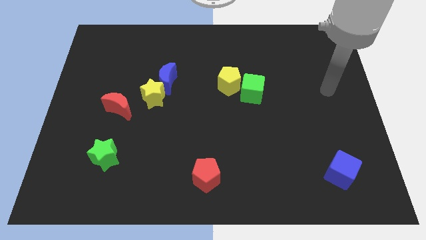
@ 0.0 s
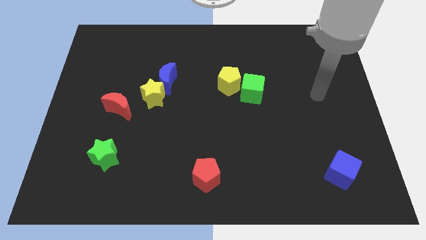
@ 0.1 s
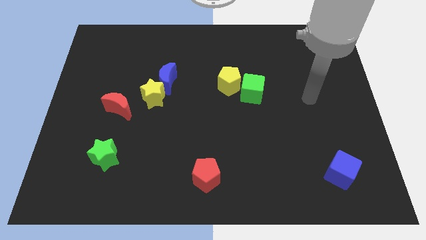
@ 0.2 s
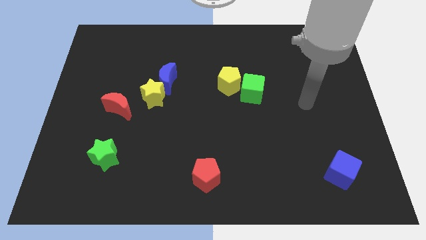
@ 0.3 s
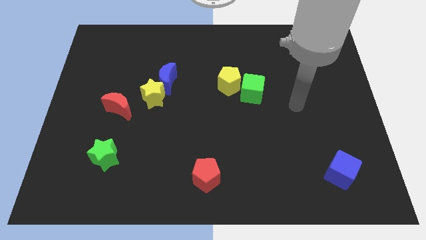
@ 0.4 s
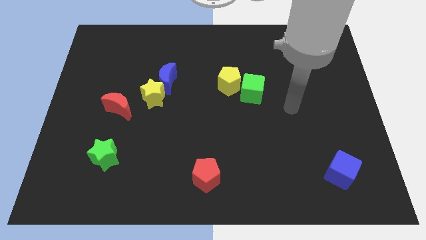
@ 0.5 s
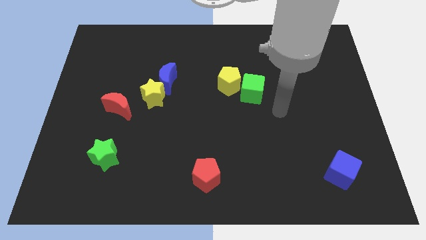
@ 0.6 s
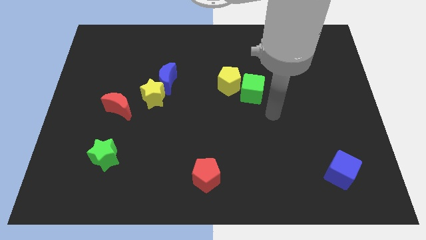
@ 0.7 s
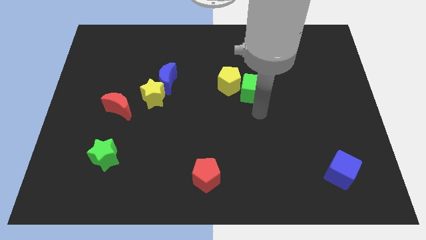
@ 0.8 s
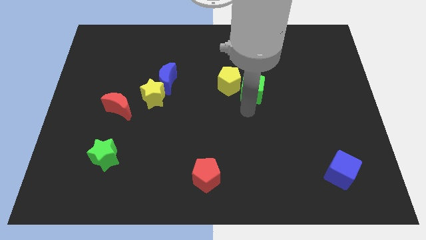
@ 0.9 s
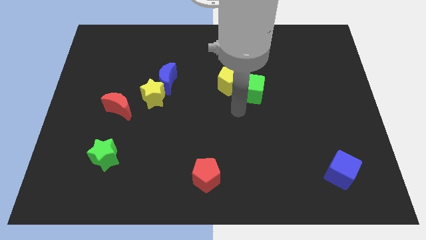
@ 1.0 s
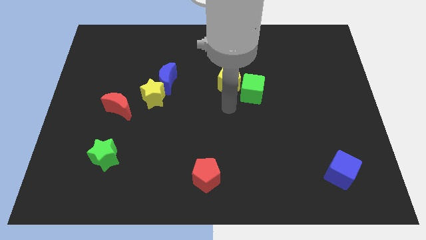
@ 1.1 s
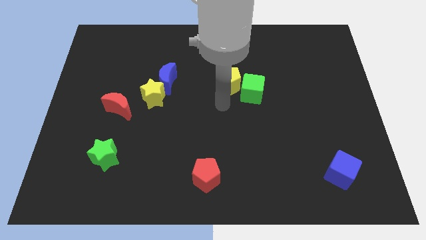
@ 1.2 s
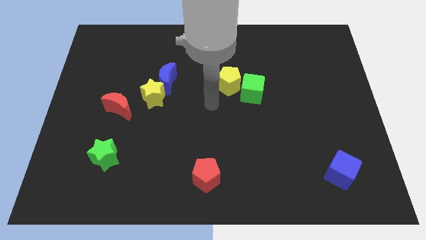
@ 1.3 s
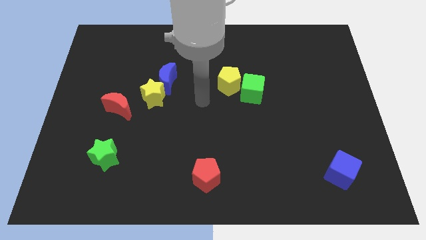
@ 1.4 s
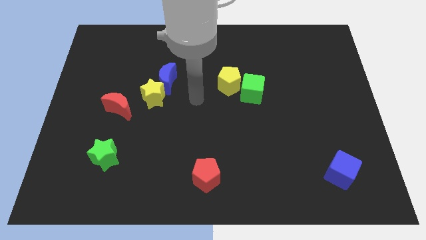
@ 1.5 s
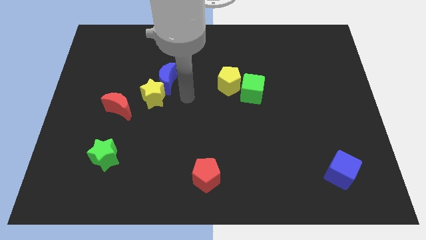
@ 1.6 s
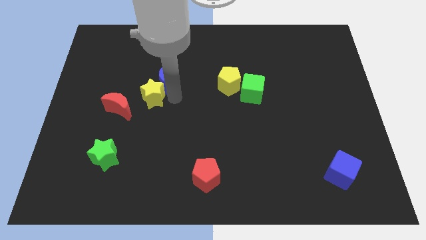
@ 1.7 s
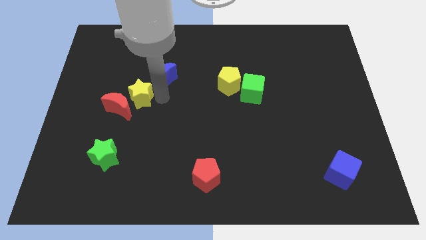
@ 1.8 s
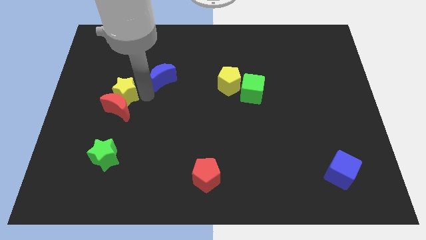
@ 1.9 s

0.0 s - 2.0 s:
move the blue moon away from the yellow star

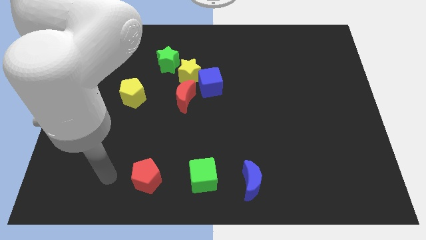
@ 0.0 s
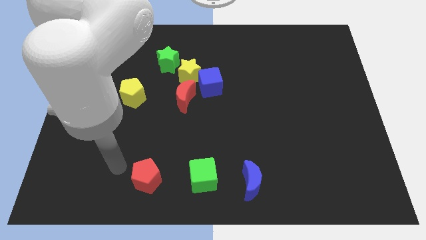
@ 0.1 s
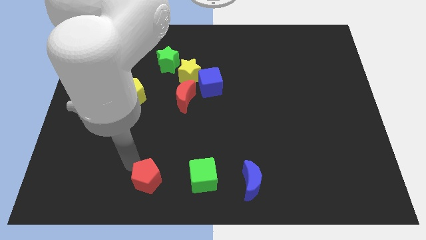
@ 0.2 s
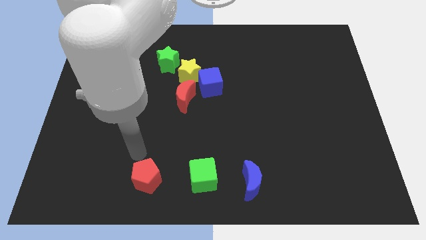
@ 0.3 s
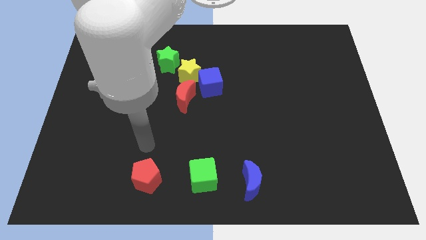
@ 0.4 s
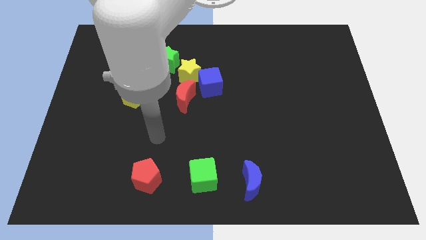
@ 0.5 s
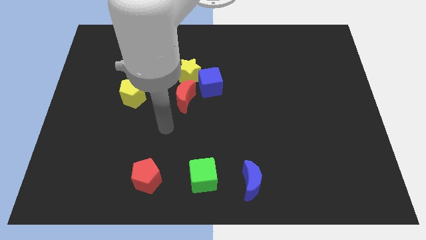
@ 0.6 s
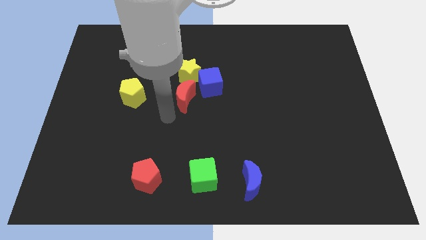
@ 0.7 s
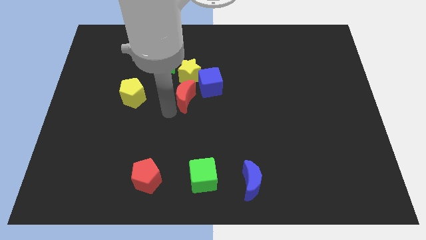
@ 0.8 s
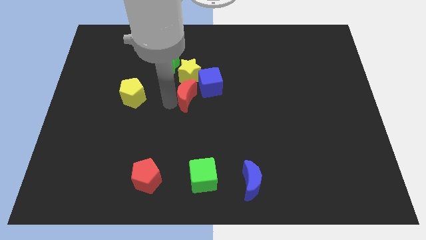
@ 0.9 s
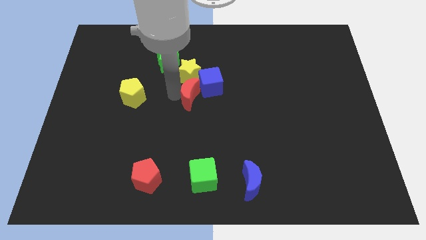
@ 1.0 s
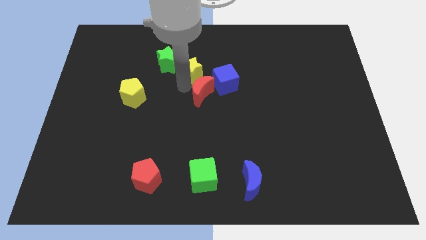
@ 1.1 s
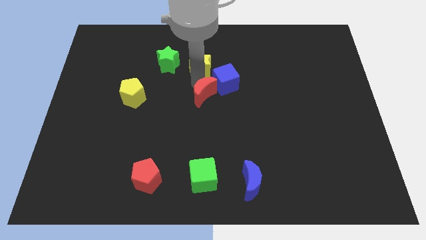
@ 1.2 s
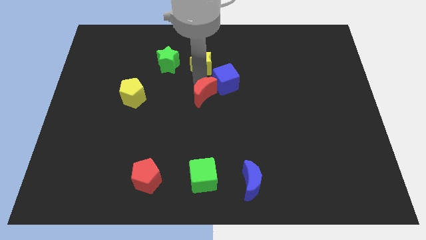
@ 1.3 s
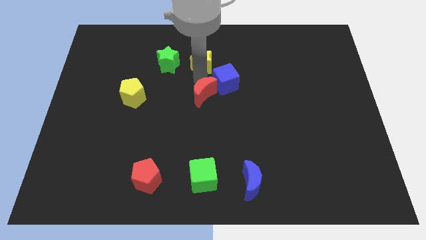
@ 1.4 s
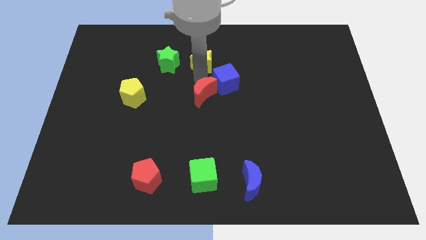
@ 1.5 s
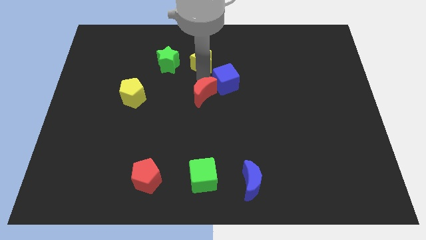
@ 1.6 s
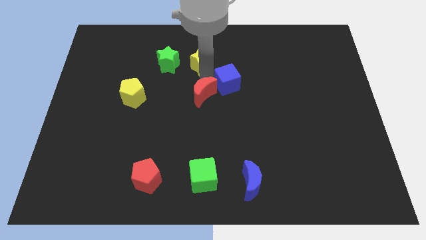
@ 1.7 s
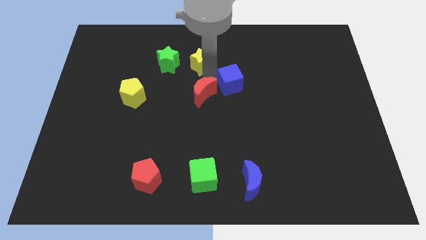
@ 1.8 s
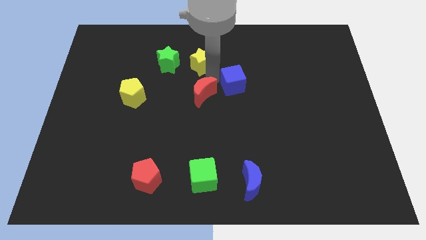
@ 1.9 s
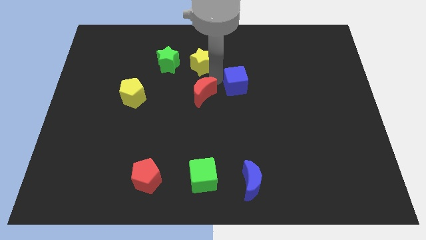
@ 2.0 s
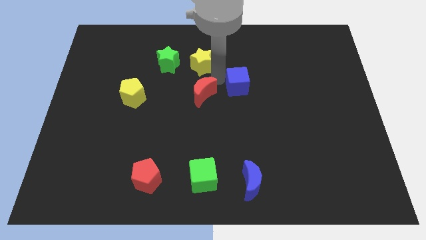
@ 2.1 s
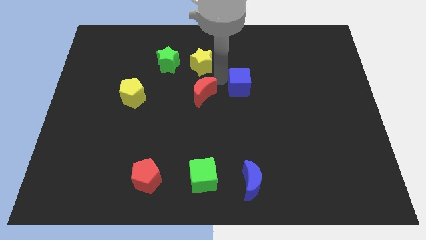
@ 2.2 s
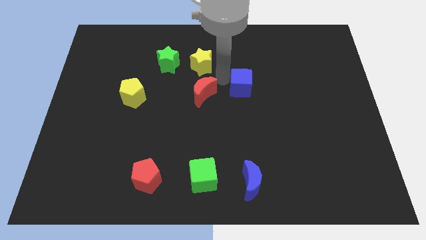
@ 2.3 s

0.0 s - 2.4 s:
move the blue cube away from the yellow star and red moon

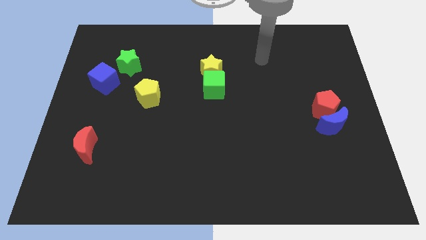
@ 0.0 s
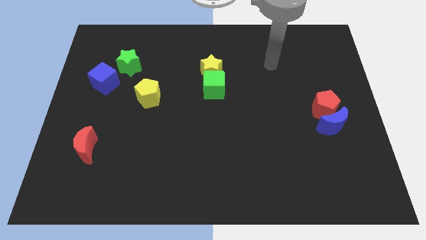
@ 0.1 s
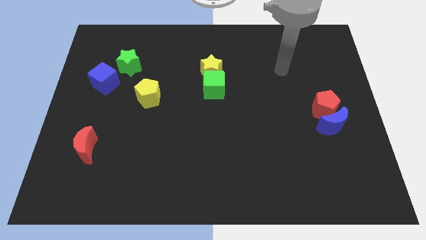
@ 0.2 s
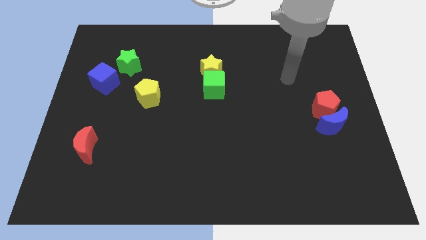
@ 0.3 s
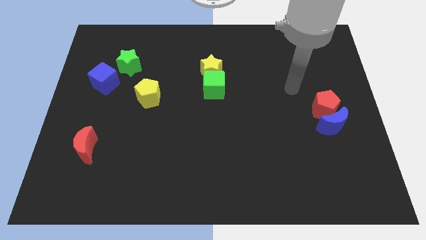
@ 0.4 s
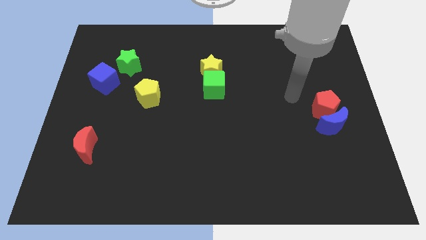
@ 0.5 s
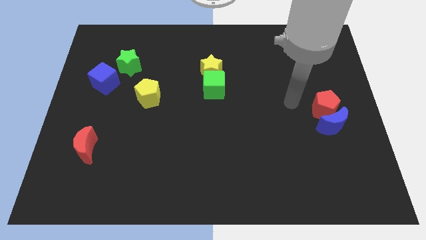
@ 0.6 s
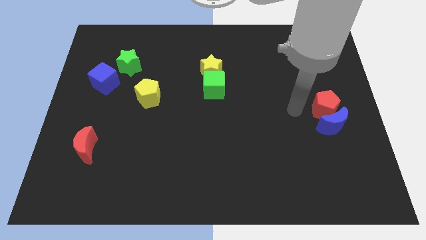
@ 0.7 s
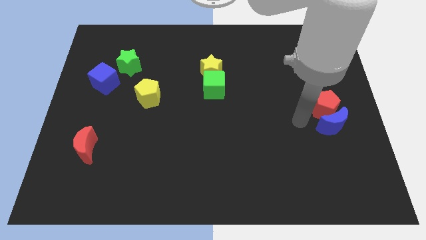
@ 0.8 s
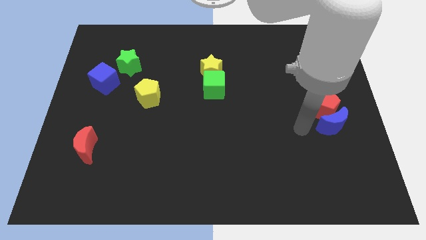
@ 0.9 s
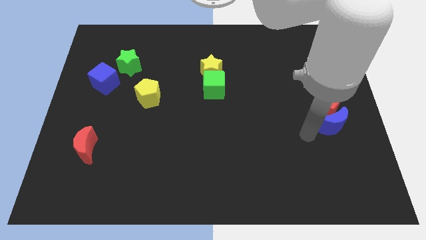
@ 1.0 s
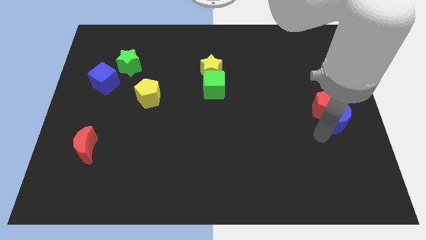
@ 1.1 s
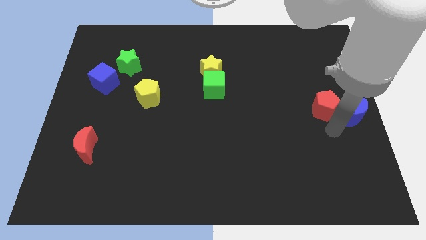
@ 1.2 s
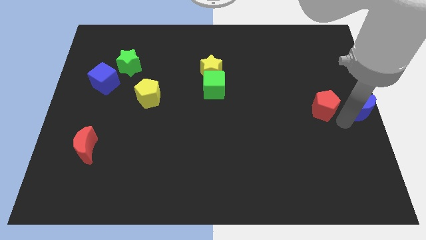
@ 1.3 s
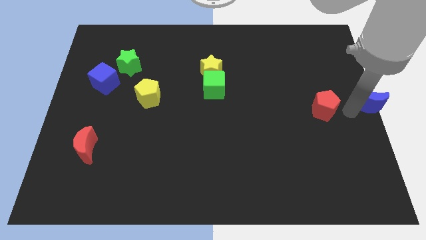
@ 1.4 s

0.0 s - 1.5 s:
move the red pentagon away from the blue moon

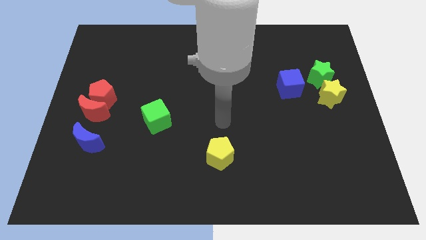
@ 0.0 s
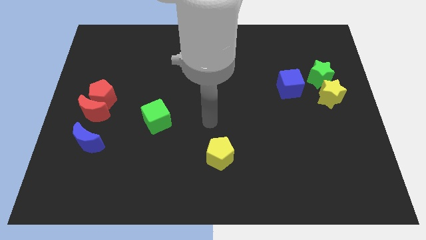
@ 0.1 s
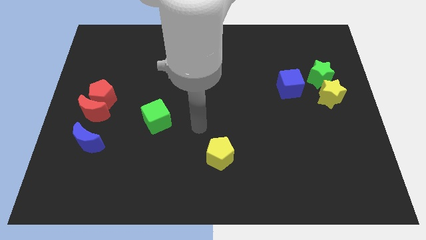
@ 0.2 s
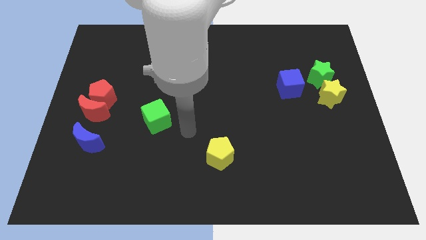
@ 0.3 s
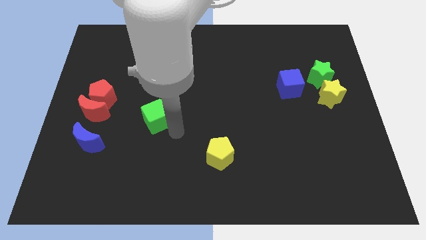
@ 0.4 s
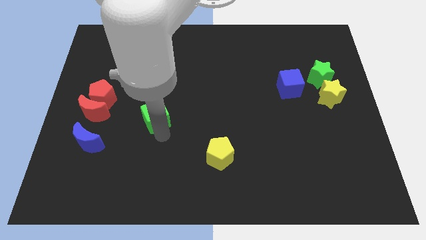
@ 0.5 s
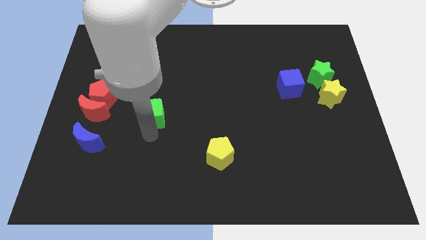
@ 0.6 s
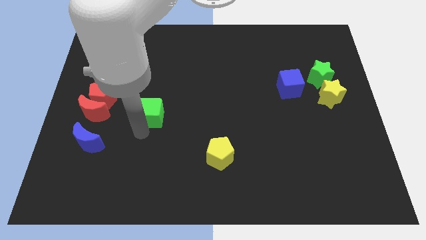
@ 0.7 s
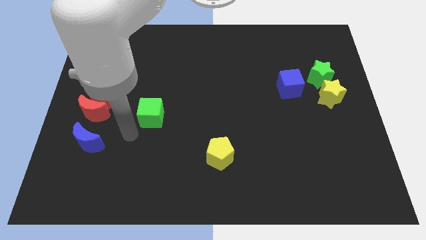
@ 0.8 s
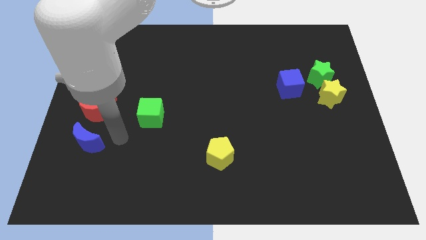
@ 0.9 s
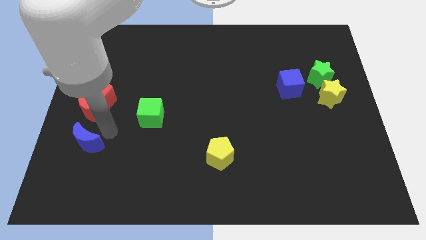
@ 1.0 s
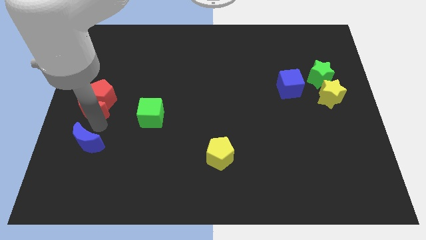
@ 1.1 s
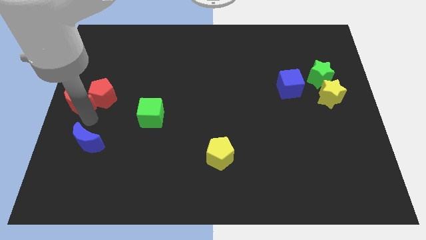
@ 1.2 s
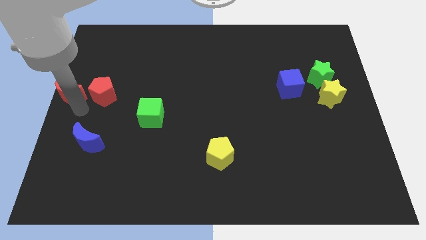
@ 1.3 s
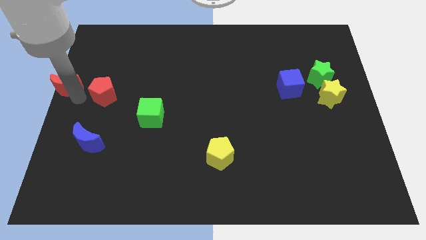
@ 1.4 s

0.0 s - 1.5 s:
move the red pentagon away from the red moon

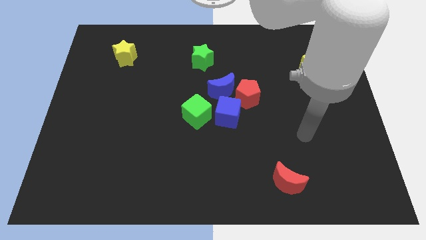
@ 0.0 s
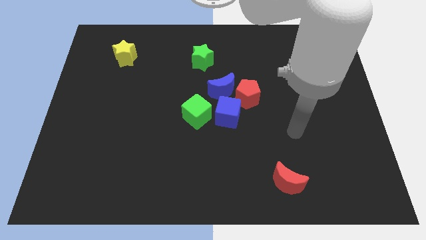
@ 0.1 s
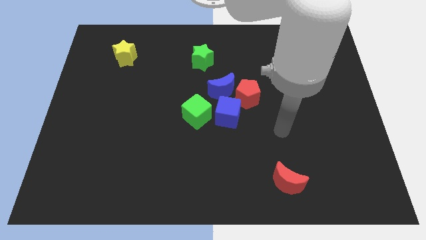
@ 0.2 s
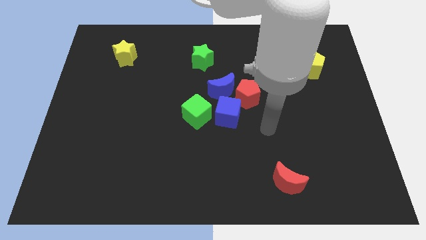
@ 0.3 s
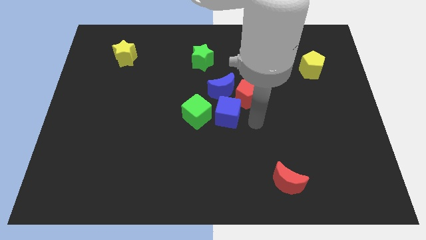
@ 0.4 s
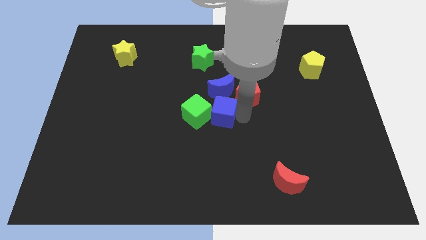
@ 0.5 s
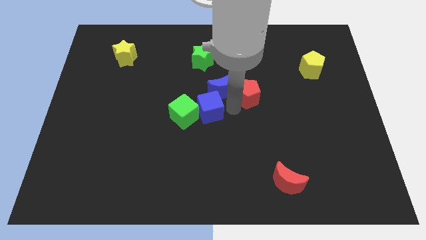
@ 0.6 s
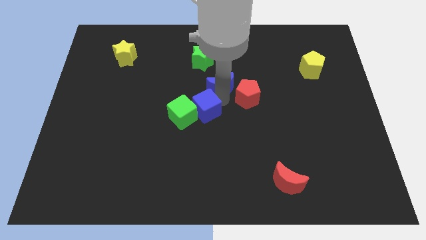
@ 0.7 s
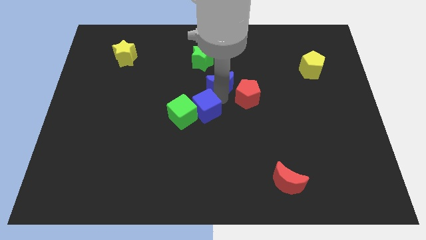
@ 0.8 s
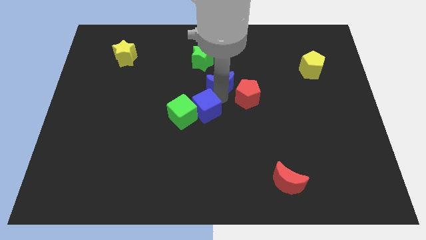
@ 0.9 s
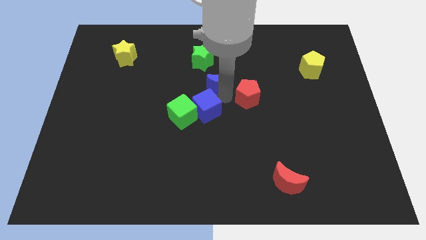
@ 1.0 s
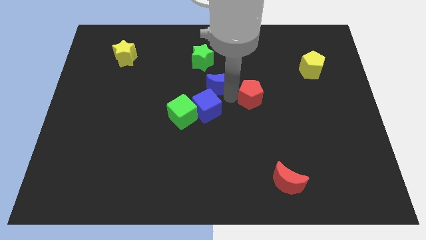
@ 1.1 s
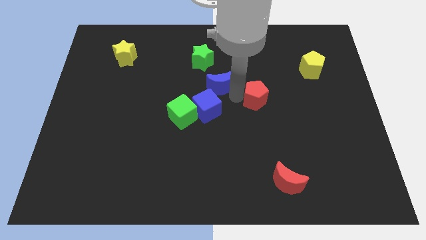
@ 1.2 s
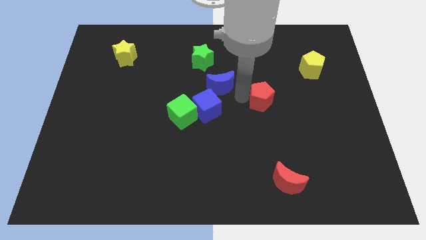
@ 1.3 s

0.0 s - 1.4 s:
pull the red pentagon apart from the blue moon and blue cube

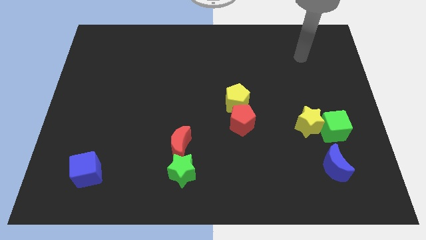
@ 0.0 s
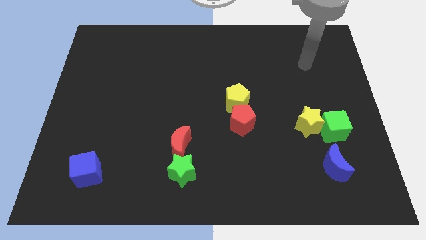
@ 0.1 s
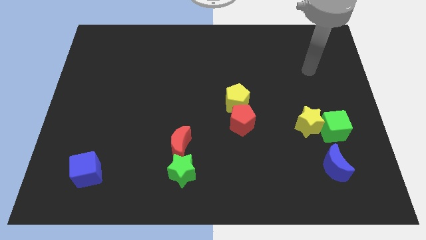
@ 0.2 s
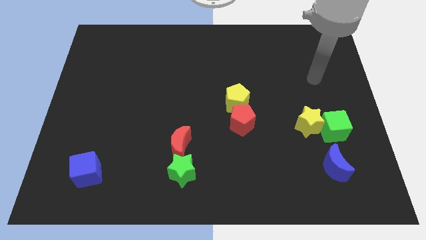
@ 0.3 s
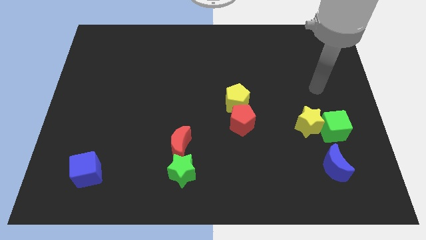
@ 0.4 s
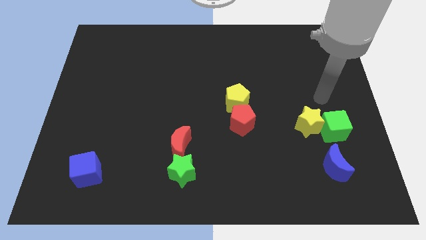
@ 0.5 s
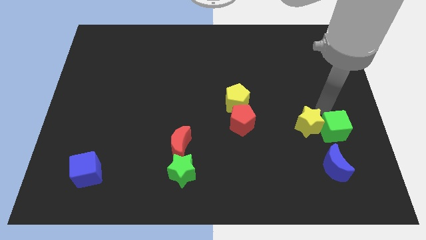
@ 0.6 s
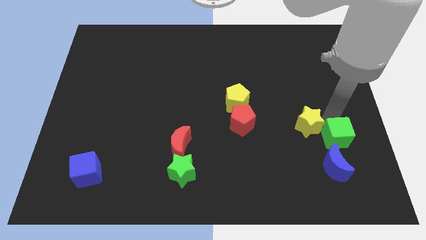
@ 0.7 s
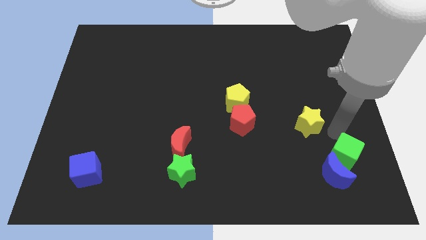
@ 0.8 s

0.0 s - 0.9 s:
separate the yellow star from the green cube
